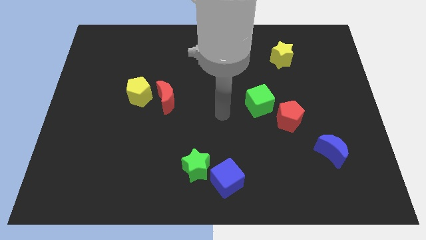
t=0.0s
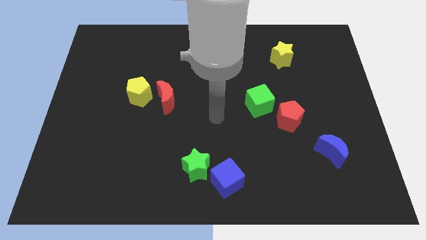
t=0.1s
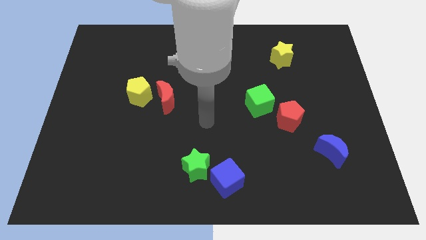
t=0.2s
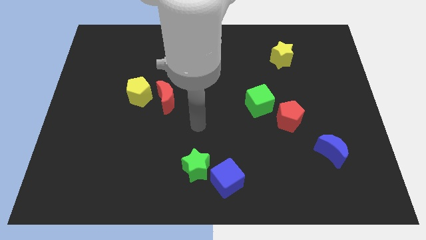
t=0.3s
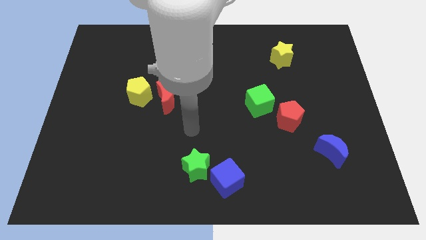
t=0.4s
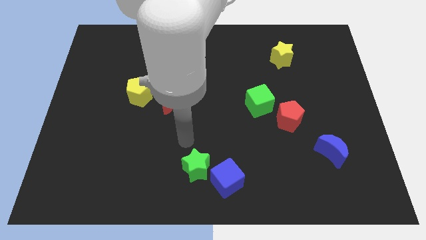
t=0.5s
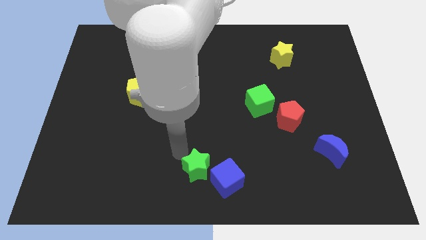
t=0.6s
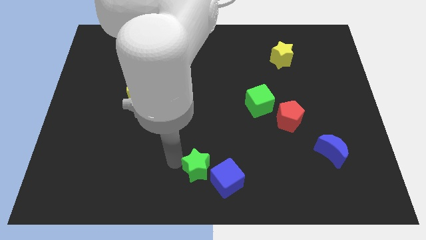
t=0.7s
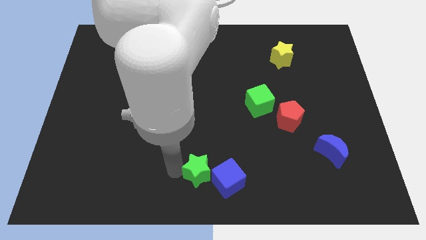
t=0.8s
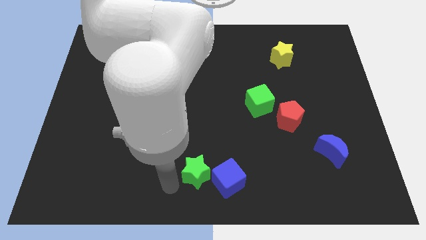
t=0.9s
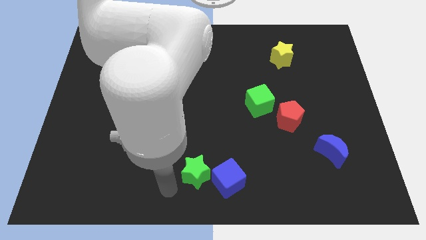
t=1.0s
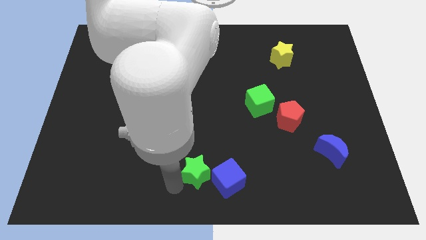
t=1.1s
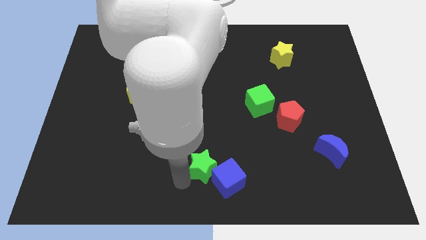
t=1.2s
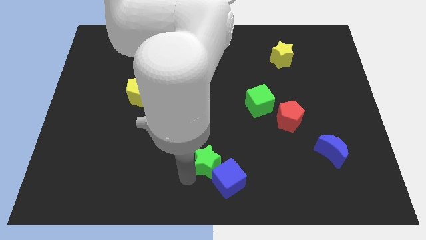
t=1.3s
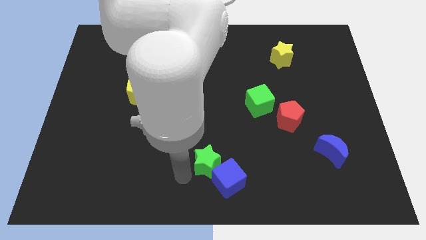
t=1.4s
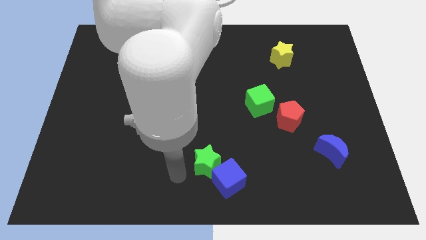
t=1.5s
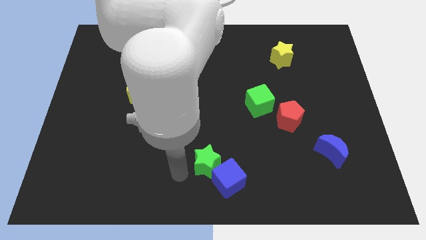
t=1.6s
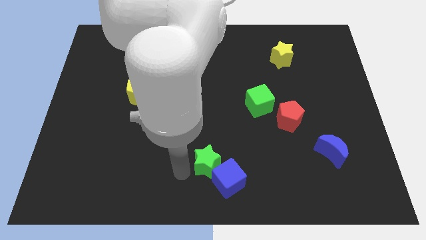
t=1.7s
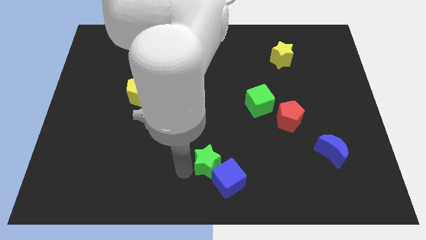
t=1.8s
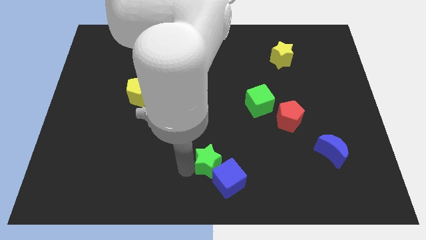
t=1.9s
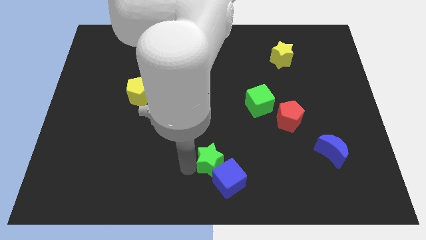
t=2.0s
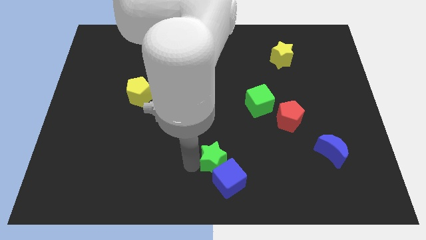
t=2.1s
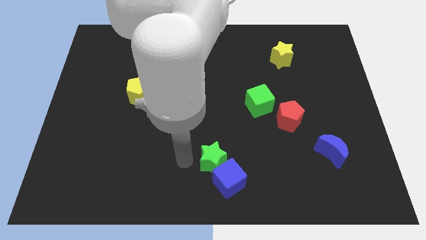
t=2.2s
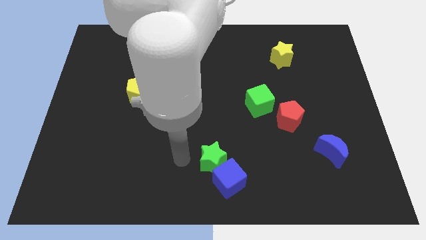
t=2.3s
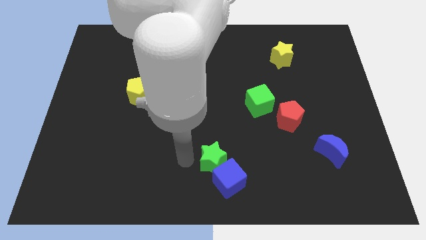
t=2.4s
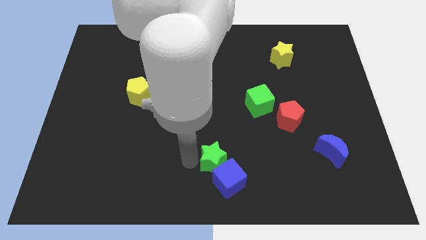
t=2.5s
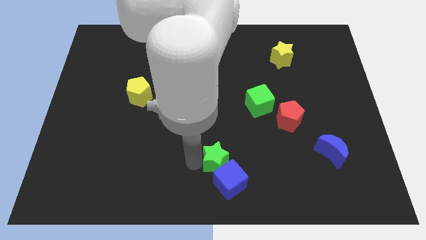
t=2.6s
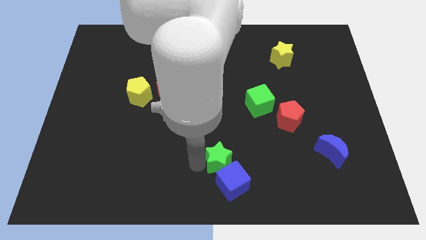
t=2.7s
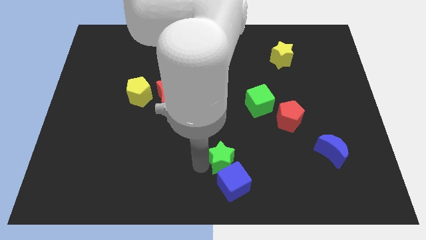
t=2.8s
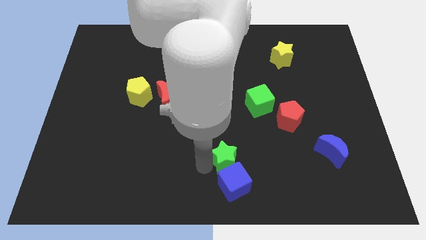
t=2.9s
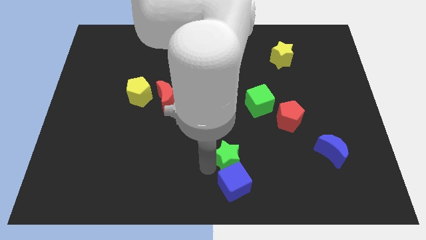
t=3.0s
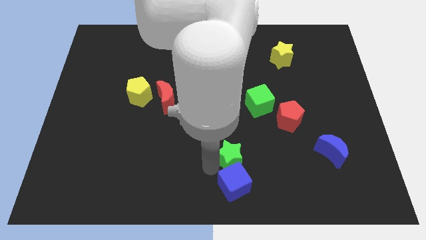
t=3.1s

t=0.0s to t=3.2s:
move the green star slightly to the right

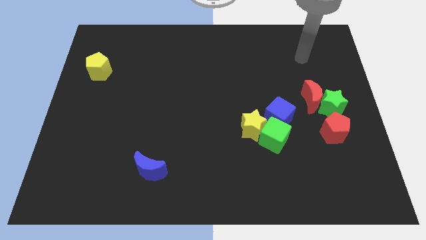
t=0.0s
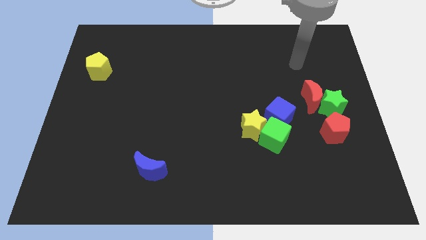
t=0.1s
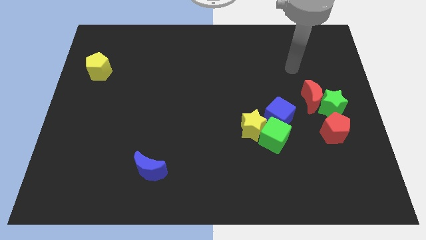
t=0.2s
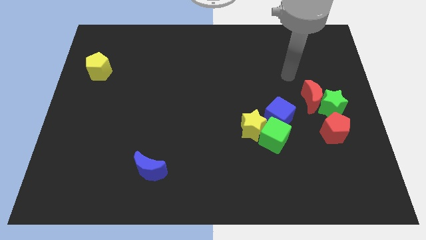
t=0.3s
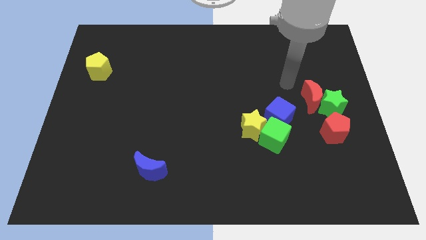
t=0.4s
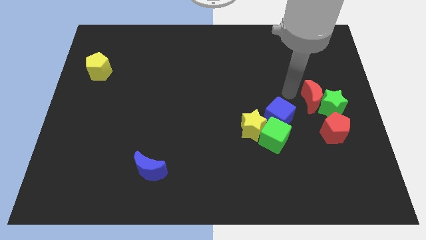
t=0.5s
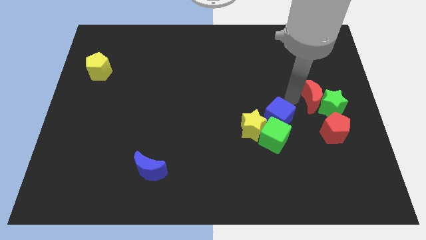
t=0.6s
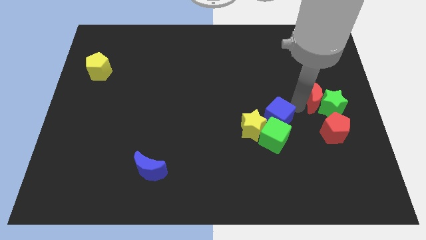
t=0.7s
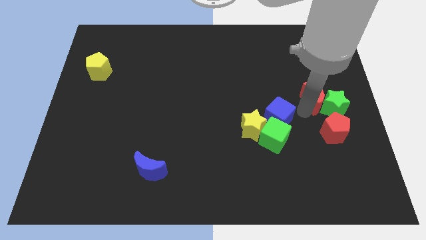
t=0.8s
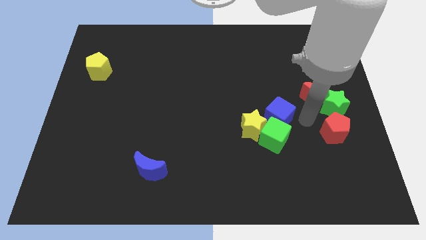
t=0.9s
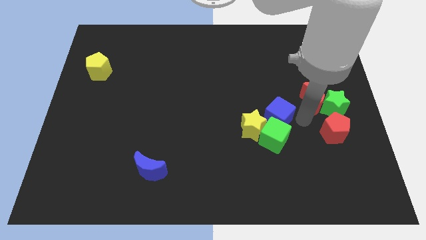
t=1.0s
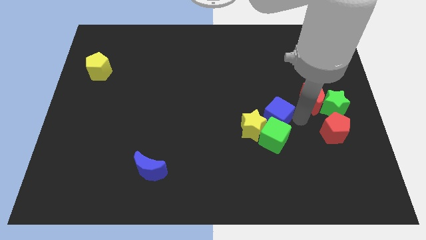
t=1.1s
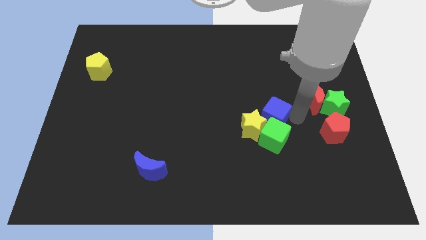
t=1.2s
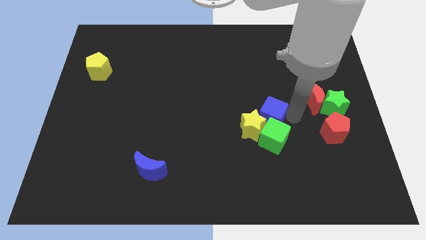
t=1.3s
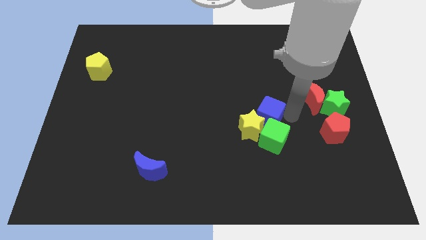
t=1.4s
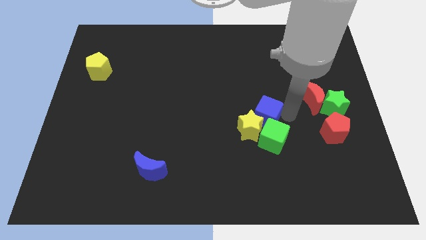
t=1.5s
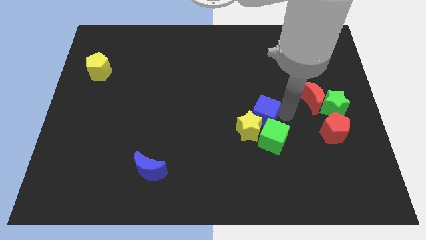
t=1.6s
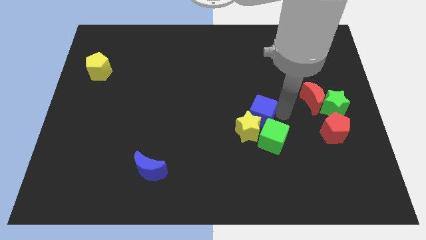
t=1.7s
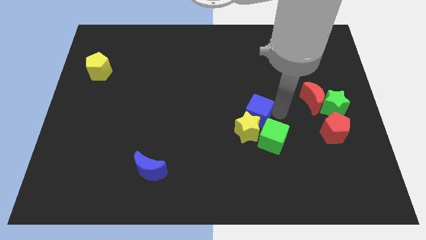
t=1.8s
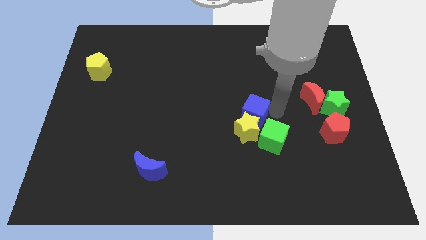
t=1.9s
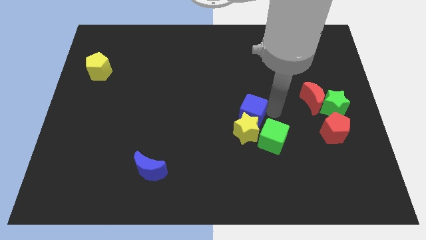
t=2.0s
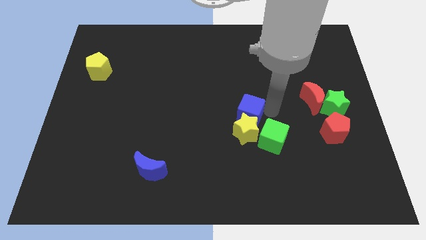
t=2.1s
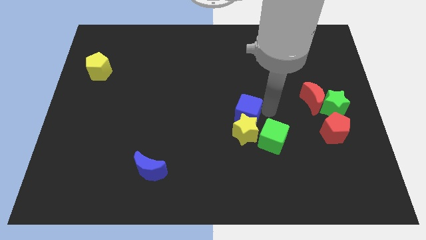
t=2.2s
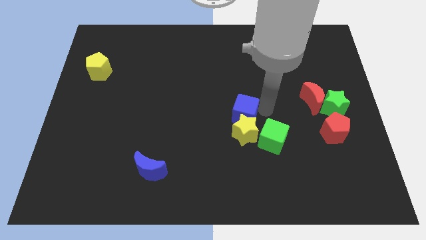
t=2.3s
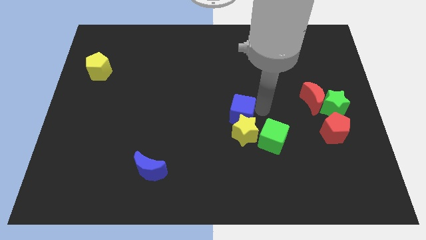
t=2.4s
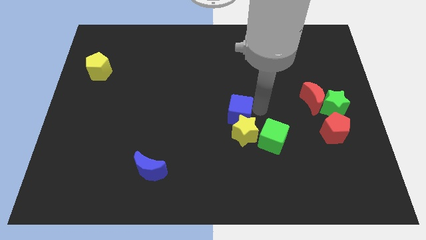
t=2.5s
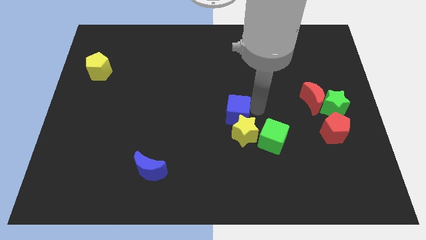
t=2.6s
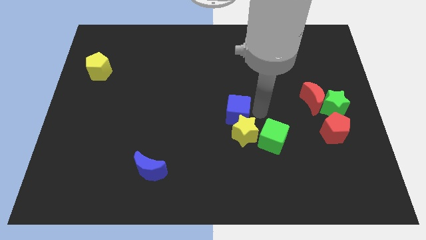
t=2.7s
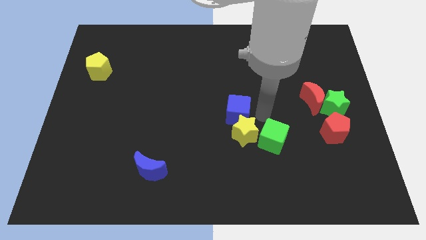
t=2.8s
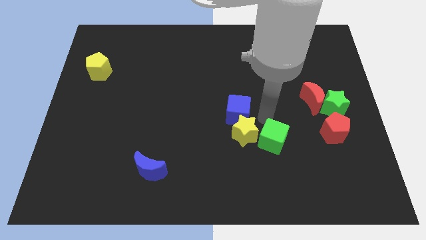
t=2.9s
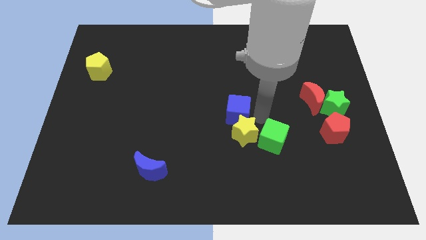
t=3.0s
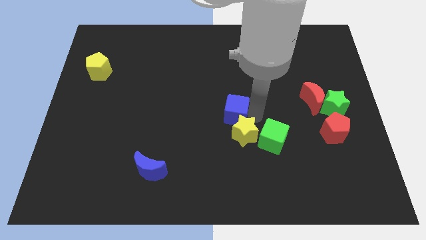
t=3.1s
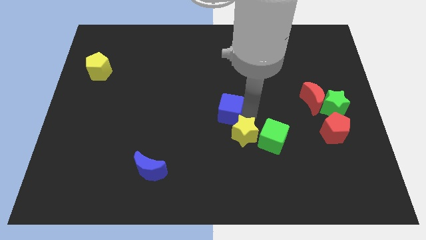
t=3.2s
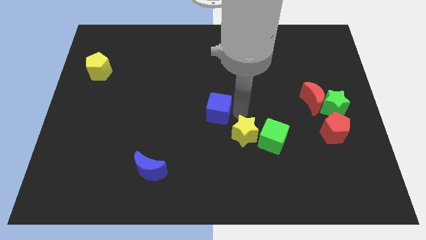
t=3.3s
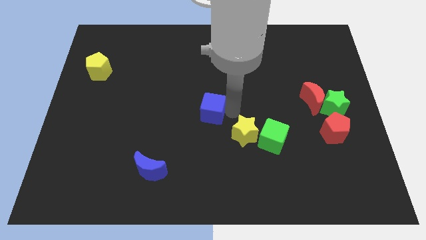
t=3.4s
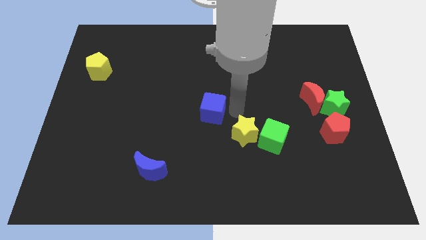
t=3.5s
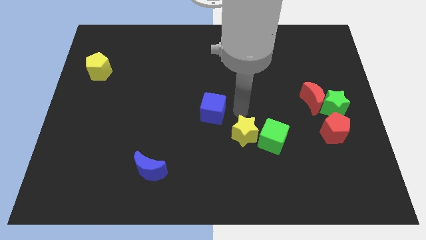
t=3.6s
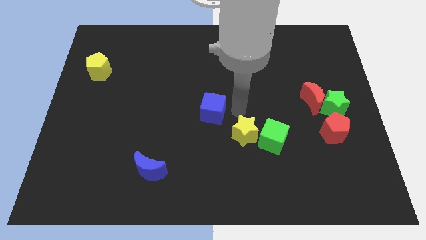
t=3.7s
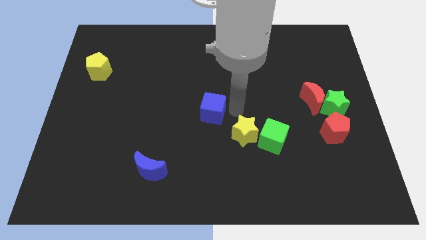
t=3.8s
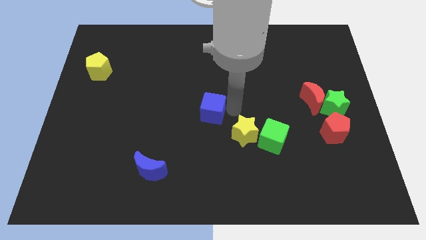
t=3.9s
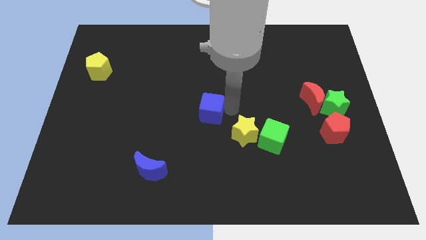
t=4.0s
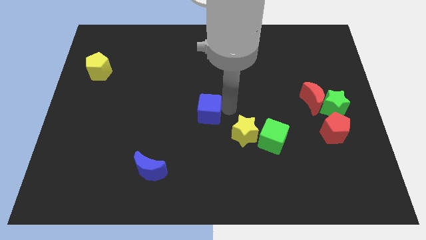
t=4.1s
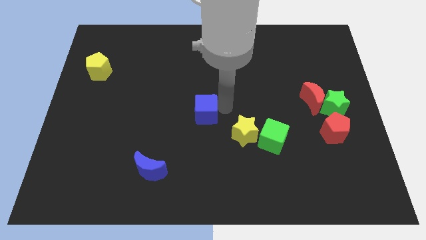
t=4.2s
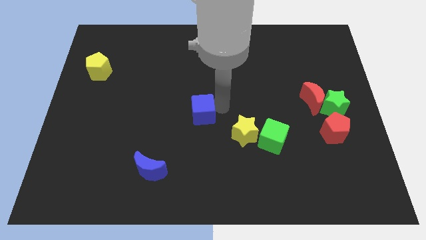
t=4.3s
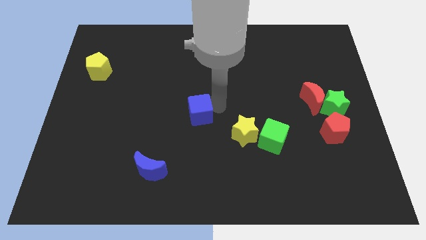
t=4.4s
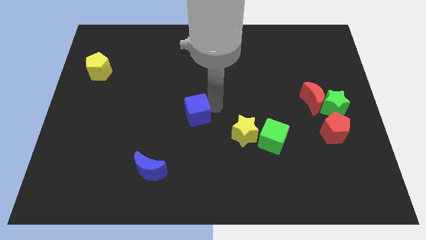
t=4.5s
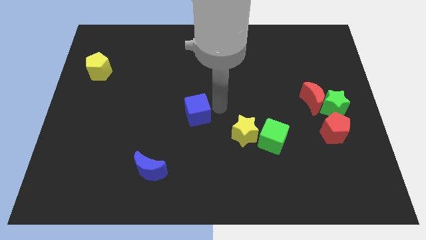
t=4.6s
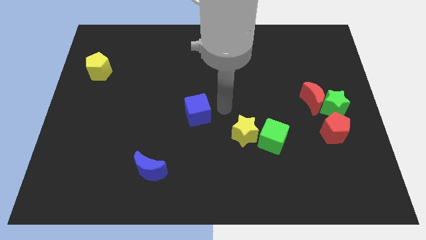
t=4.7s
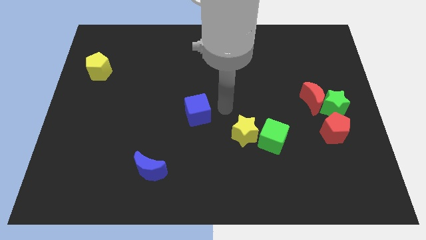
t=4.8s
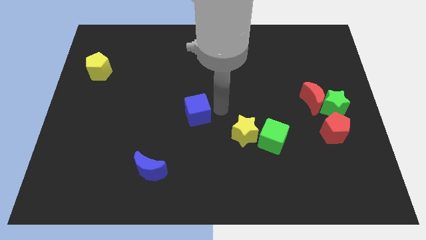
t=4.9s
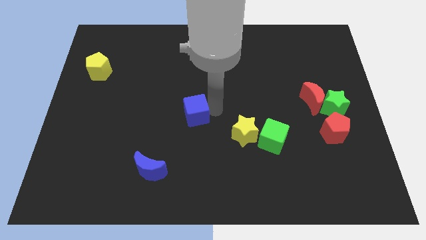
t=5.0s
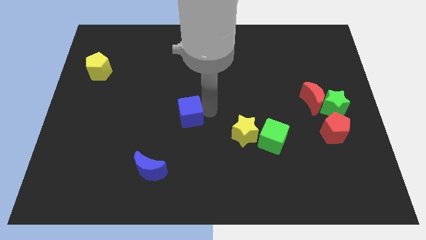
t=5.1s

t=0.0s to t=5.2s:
move the blue cube left
